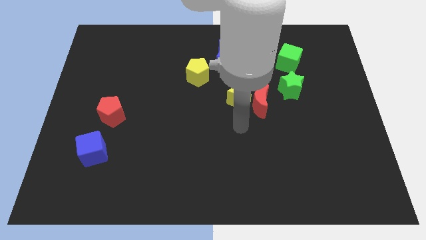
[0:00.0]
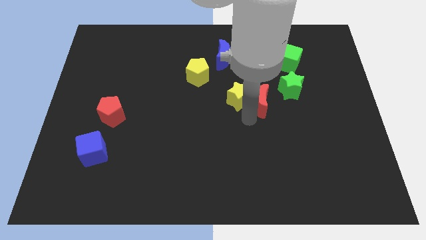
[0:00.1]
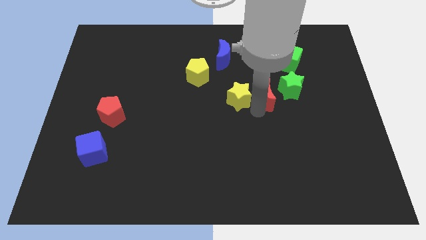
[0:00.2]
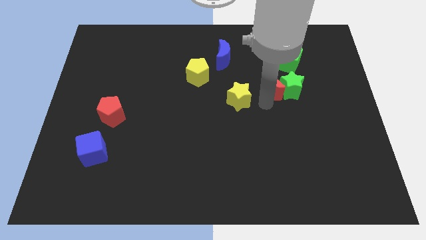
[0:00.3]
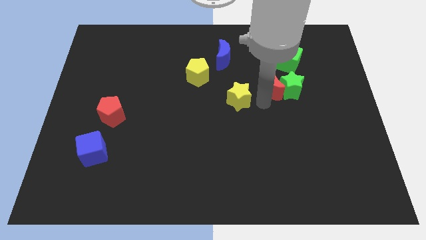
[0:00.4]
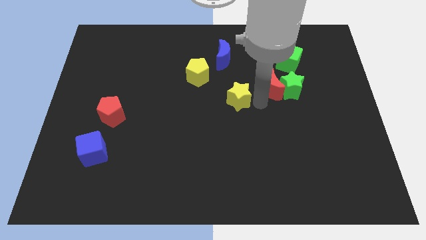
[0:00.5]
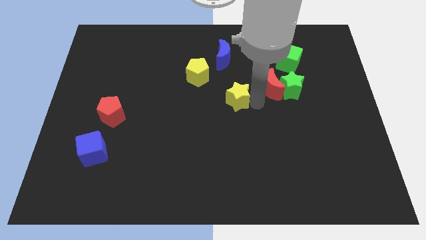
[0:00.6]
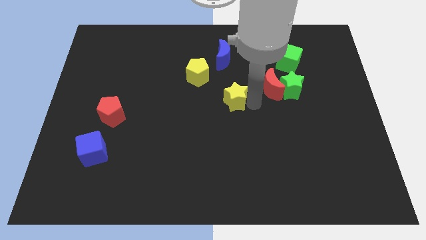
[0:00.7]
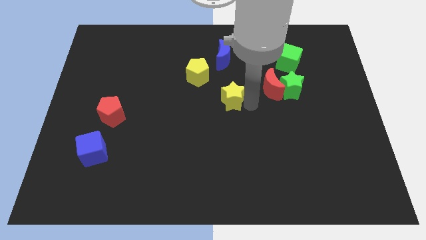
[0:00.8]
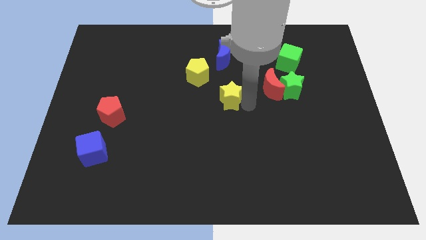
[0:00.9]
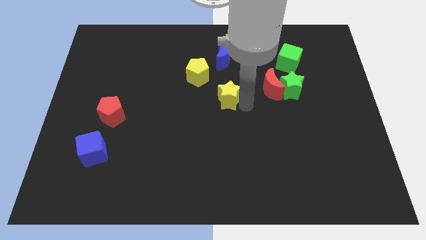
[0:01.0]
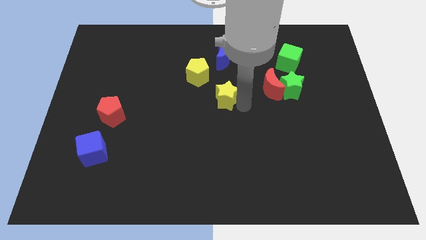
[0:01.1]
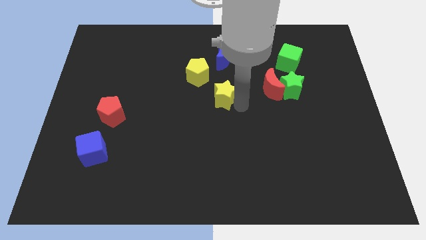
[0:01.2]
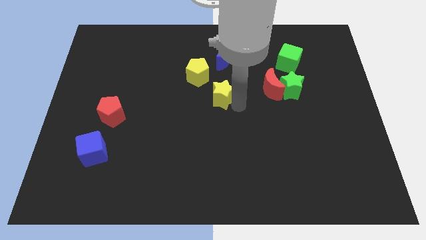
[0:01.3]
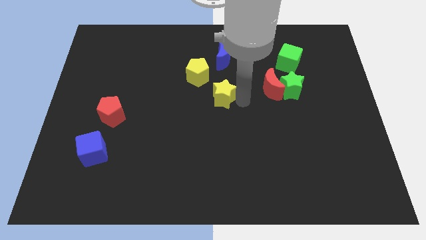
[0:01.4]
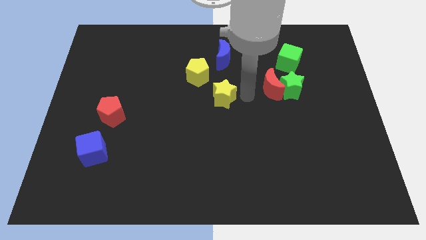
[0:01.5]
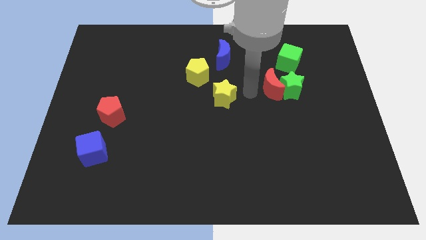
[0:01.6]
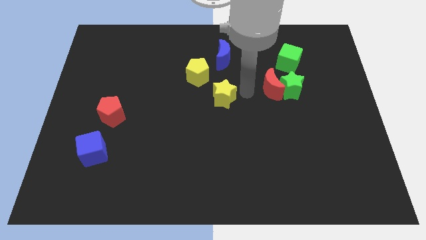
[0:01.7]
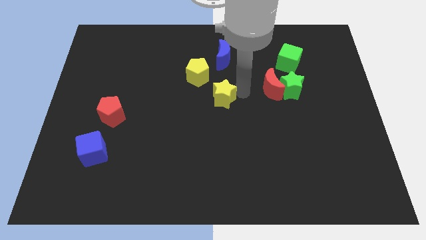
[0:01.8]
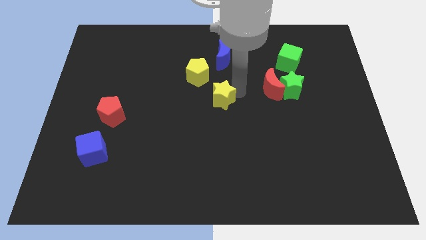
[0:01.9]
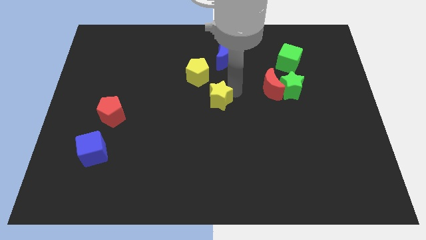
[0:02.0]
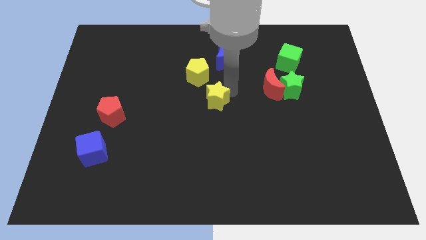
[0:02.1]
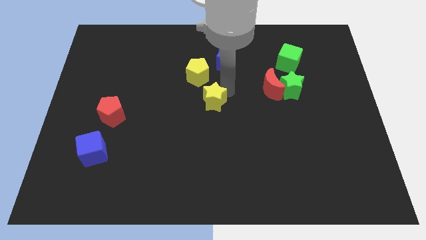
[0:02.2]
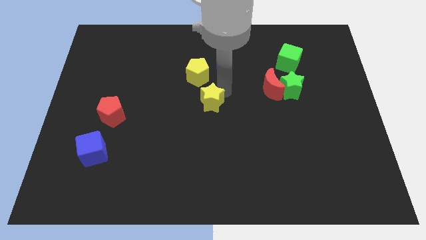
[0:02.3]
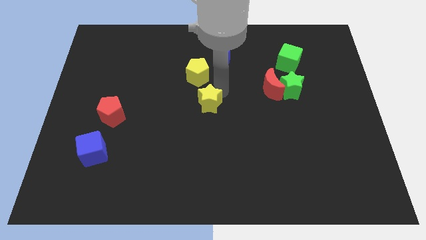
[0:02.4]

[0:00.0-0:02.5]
push the yellow star left a bit

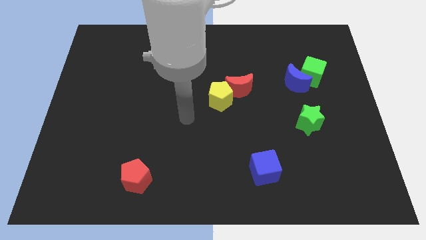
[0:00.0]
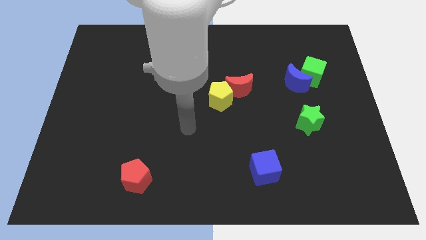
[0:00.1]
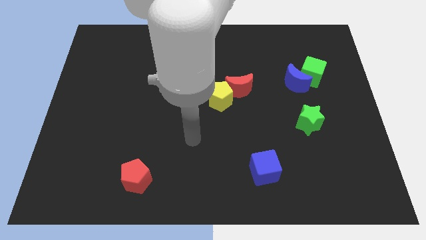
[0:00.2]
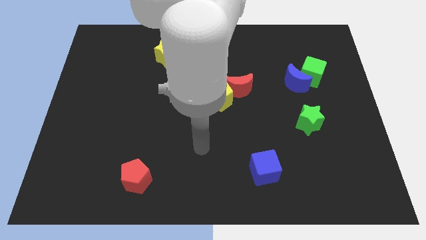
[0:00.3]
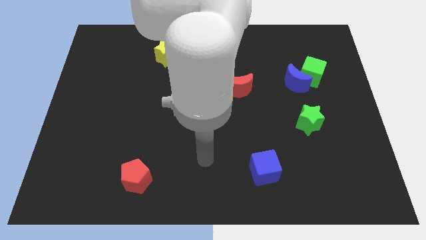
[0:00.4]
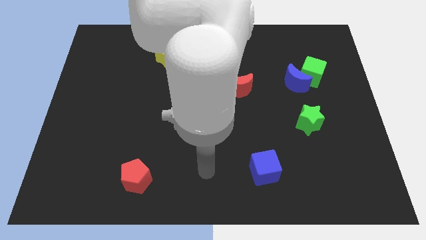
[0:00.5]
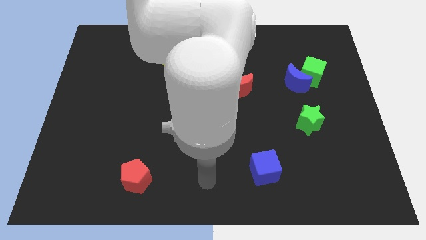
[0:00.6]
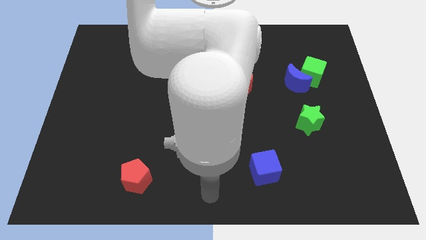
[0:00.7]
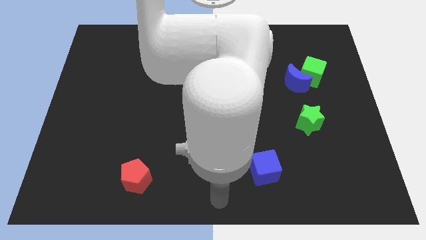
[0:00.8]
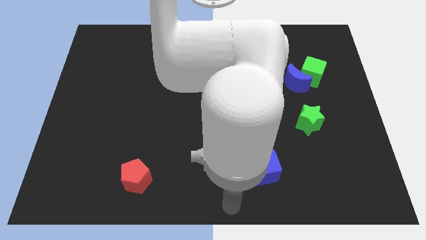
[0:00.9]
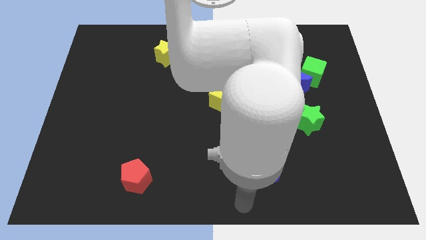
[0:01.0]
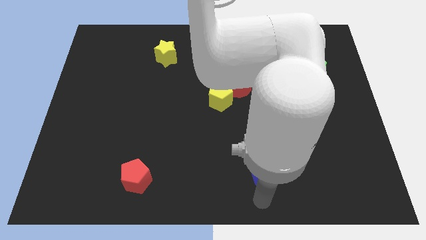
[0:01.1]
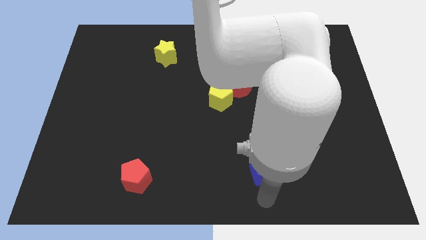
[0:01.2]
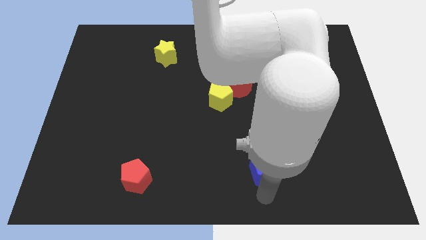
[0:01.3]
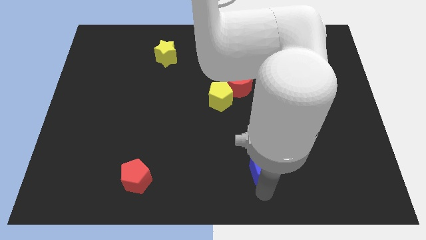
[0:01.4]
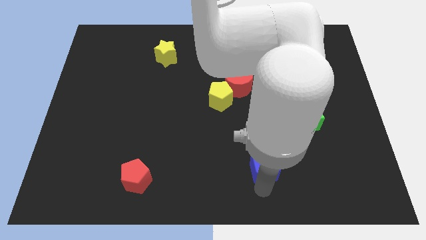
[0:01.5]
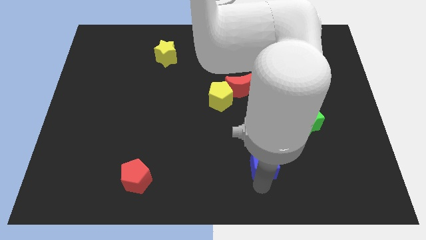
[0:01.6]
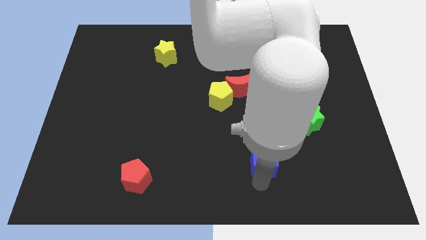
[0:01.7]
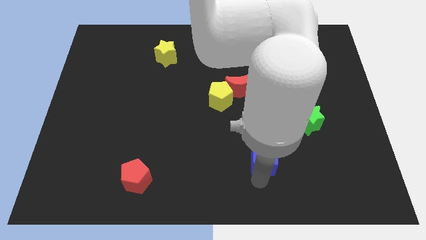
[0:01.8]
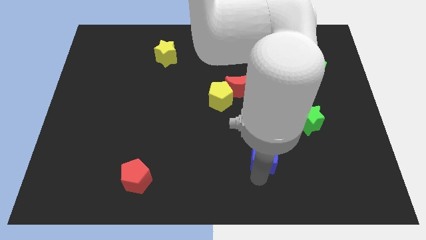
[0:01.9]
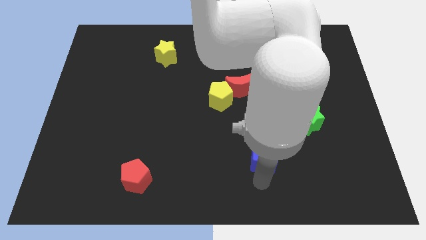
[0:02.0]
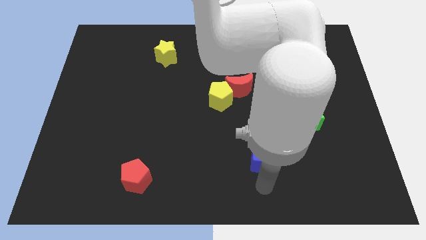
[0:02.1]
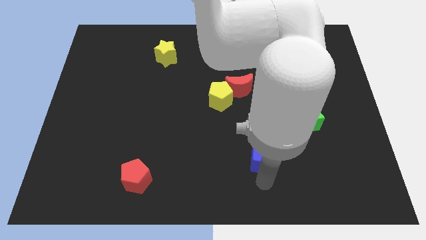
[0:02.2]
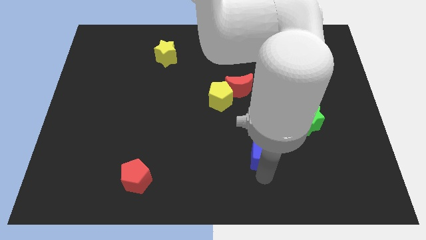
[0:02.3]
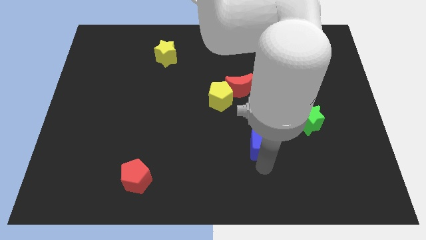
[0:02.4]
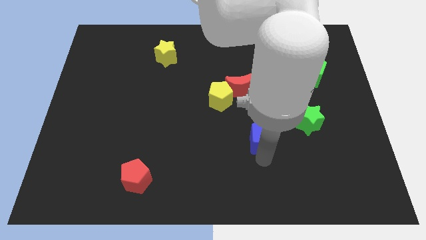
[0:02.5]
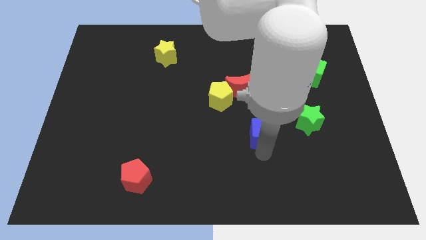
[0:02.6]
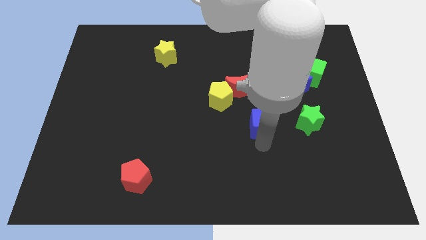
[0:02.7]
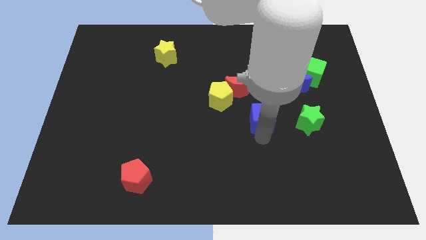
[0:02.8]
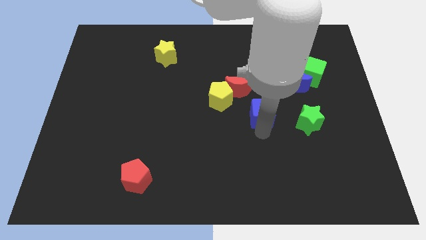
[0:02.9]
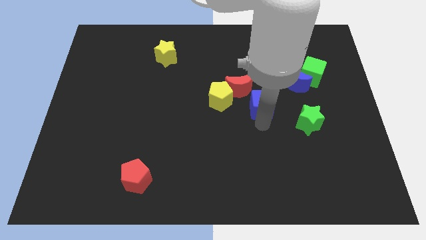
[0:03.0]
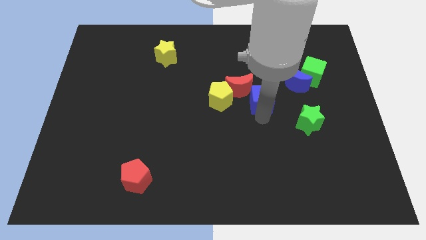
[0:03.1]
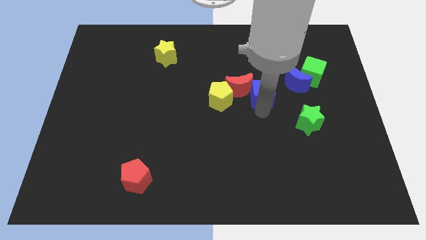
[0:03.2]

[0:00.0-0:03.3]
slide the blue cube upwards

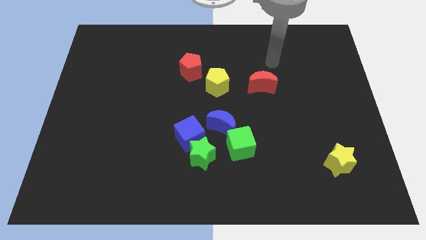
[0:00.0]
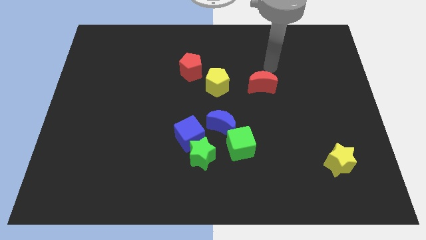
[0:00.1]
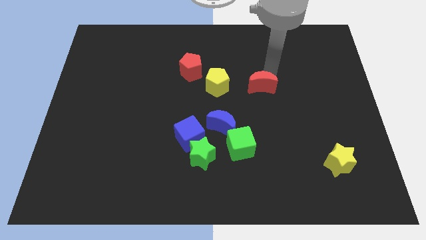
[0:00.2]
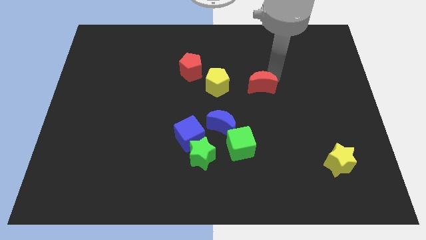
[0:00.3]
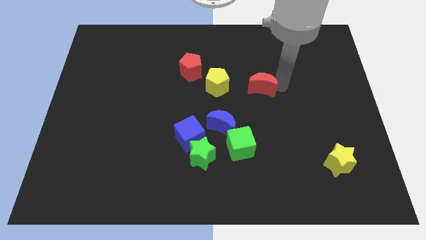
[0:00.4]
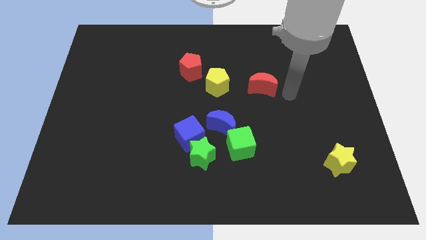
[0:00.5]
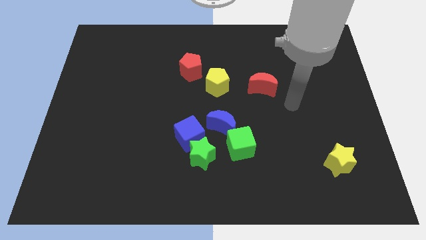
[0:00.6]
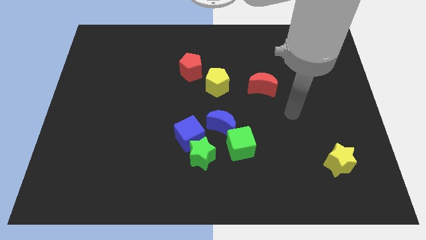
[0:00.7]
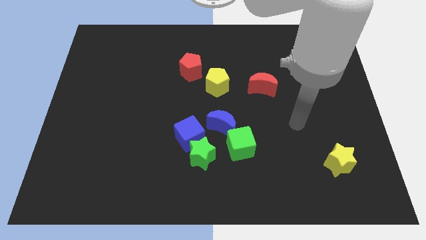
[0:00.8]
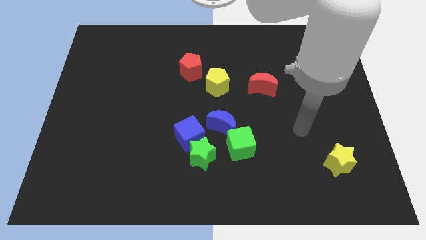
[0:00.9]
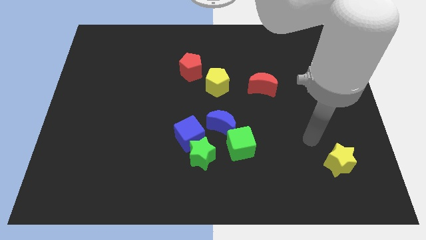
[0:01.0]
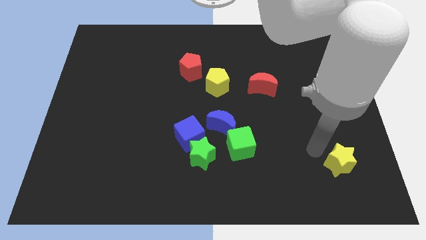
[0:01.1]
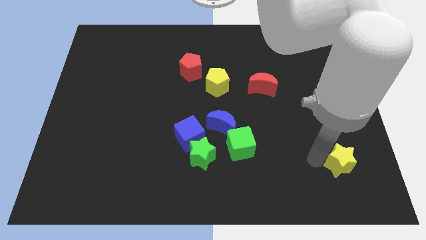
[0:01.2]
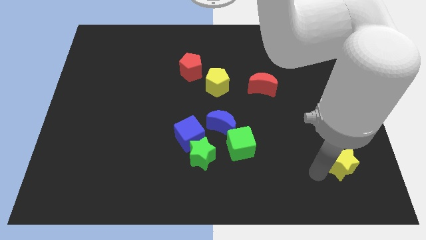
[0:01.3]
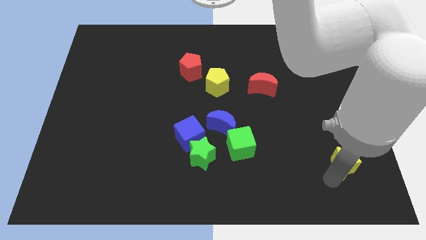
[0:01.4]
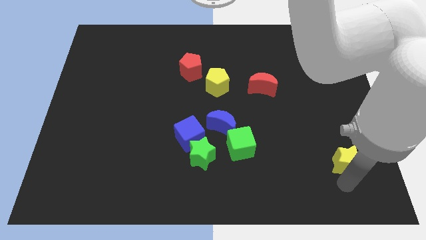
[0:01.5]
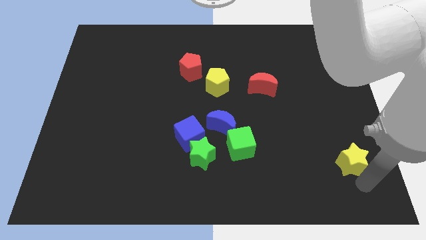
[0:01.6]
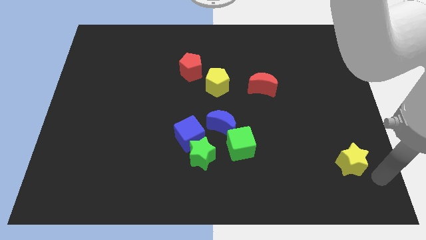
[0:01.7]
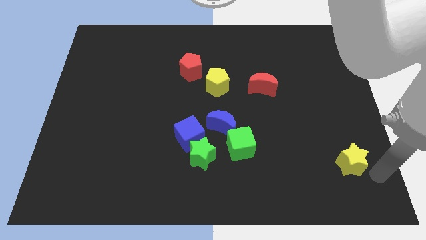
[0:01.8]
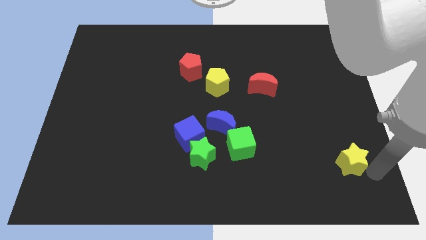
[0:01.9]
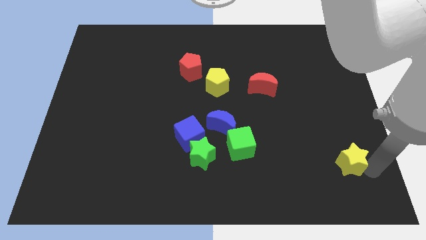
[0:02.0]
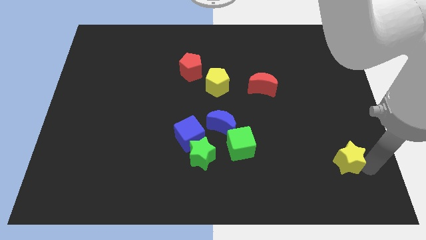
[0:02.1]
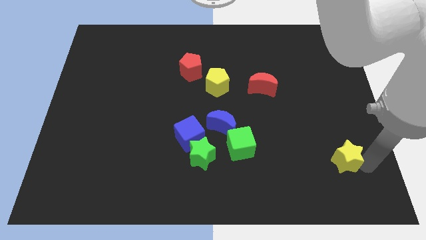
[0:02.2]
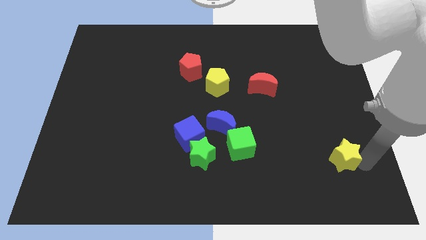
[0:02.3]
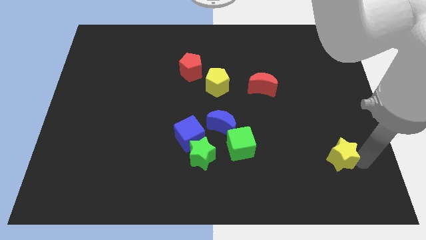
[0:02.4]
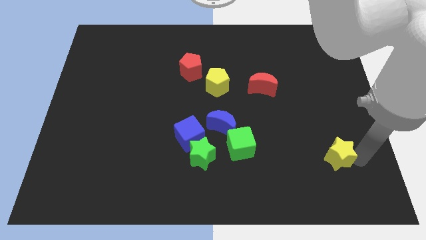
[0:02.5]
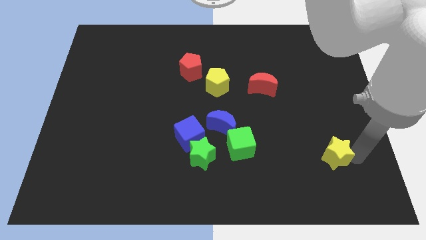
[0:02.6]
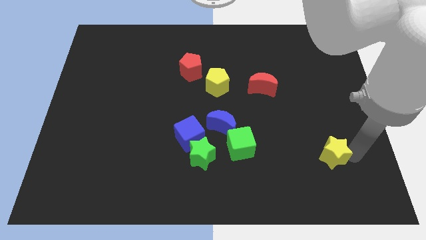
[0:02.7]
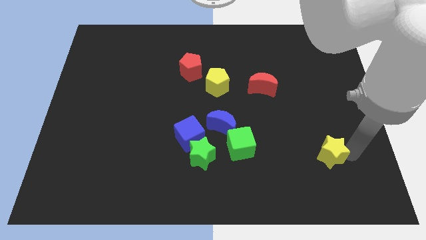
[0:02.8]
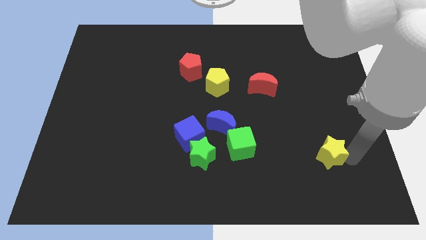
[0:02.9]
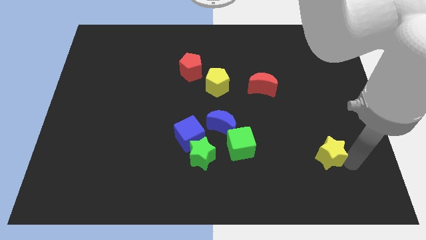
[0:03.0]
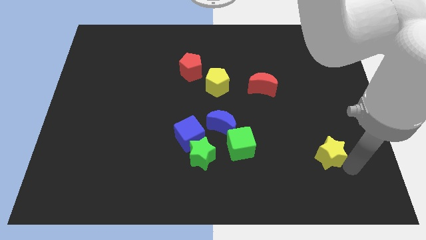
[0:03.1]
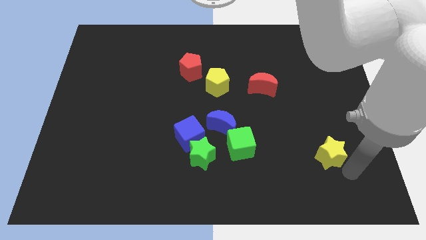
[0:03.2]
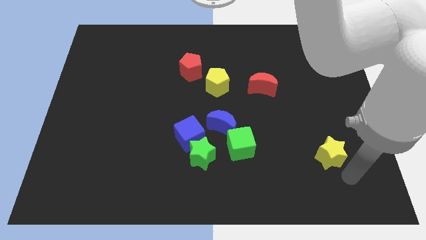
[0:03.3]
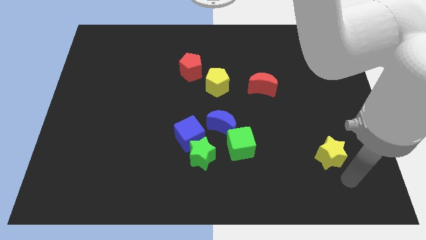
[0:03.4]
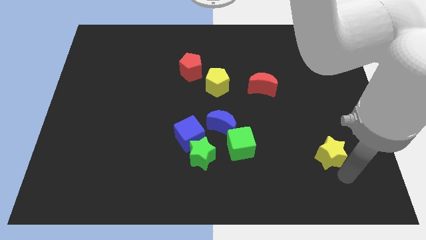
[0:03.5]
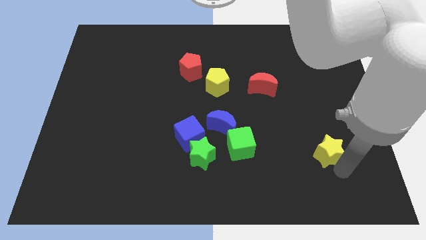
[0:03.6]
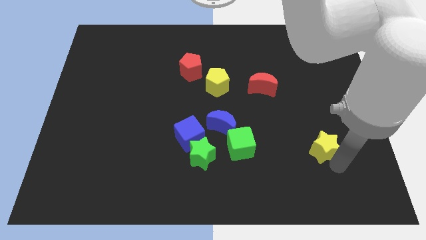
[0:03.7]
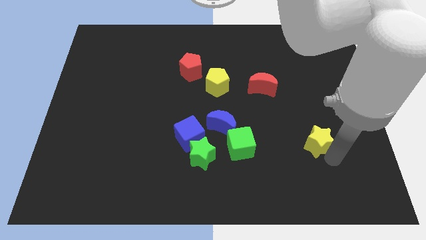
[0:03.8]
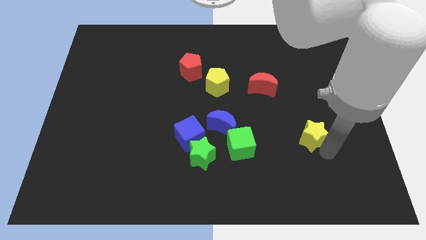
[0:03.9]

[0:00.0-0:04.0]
move the yellow star up and then to the left a little
